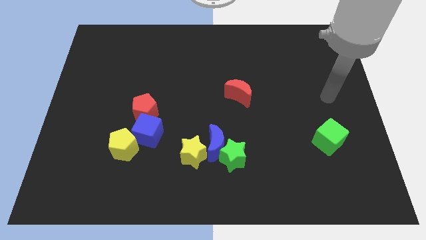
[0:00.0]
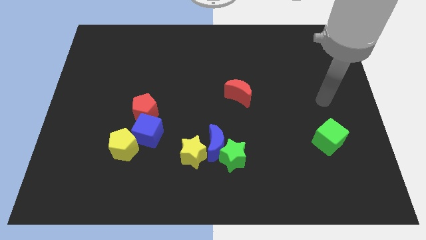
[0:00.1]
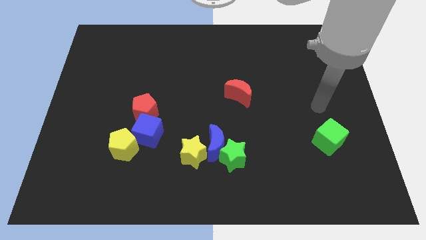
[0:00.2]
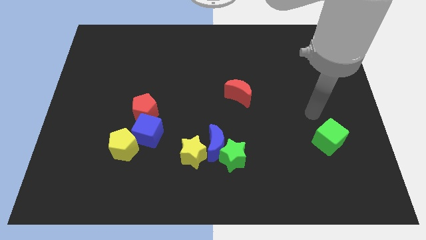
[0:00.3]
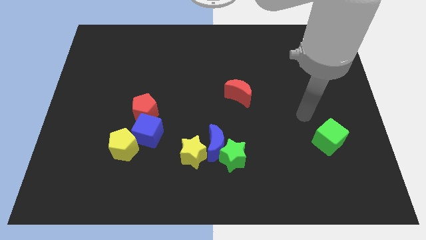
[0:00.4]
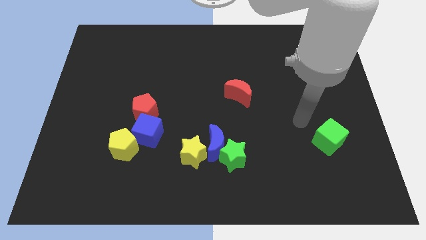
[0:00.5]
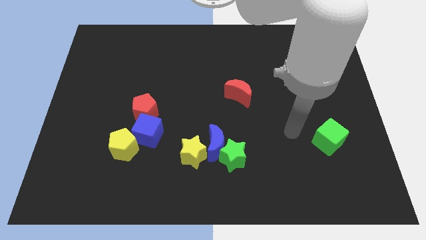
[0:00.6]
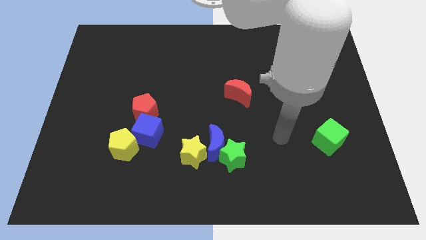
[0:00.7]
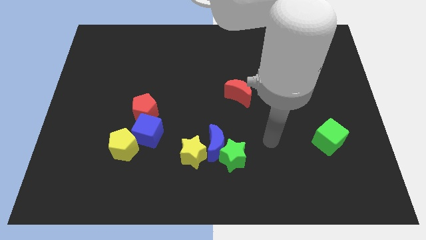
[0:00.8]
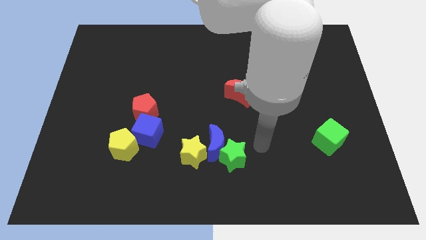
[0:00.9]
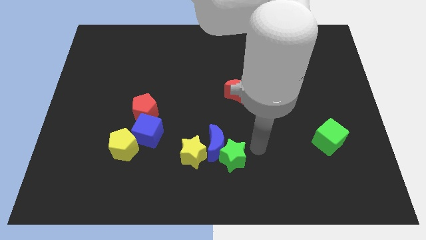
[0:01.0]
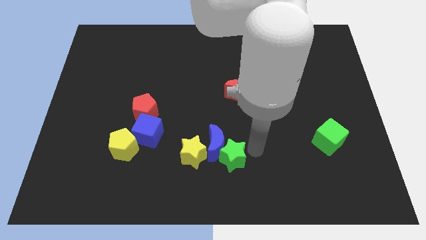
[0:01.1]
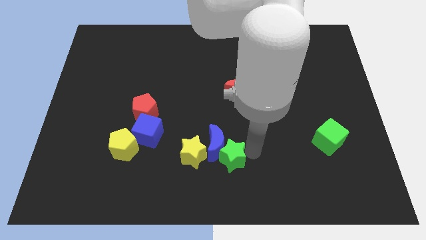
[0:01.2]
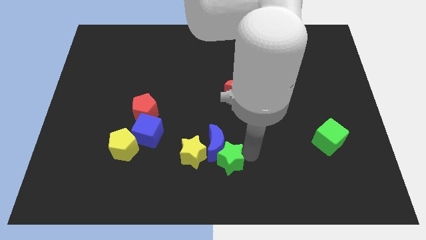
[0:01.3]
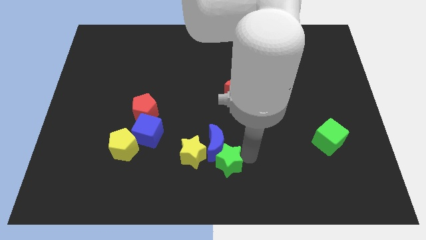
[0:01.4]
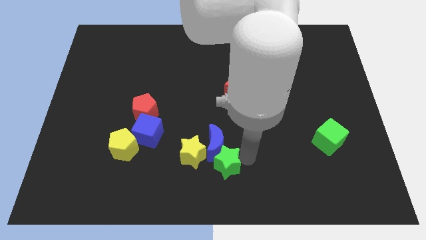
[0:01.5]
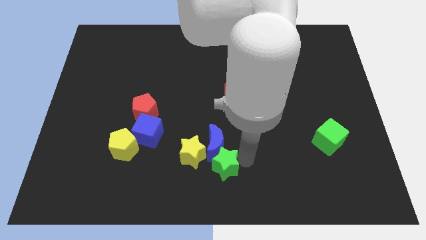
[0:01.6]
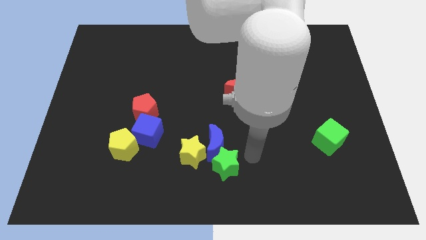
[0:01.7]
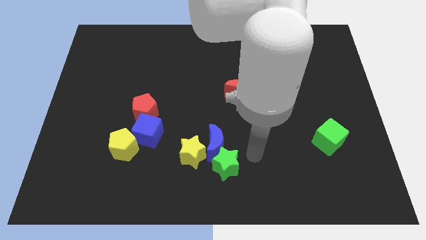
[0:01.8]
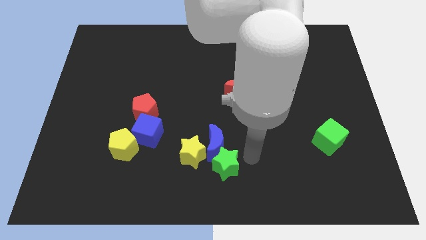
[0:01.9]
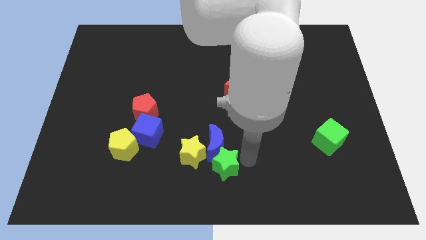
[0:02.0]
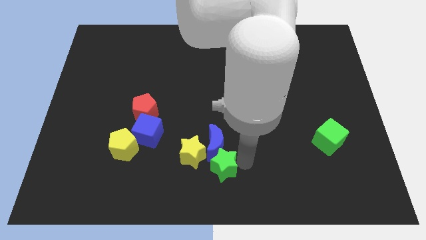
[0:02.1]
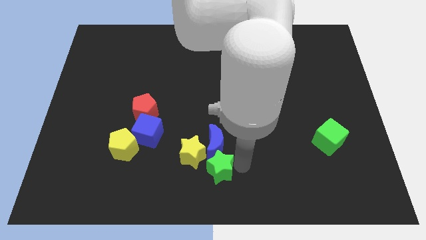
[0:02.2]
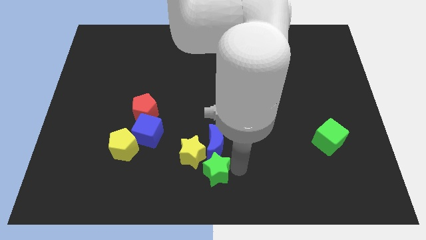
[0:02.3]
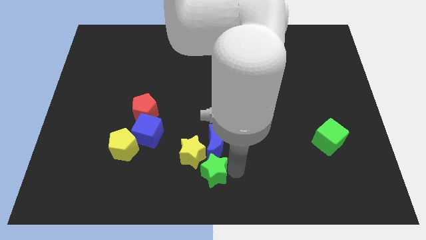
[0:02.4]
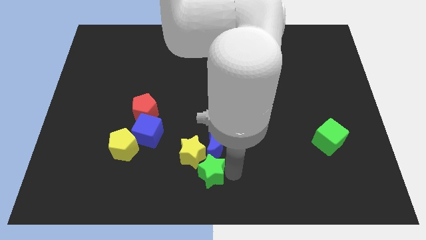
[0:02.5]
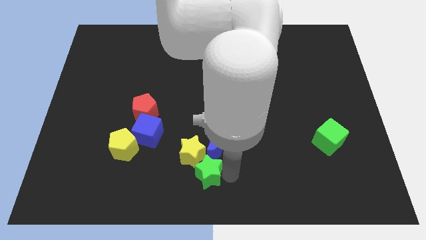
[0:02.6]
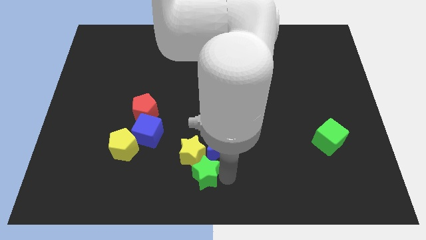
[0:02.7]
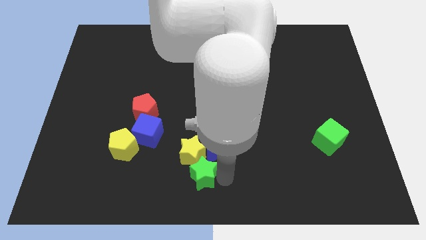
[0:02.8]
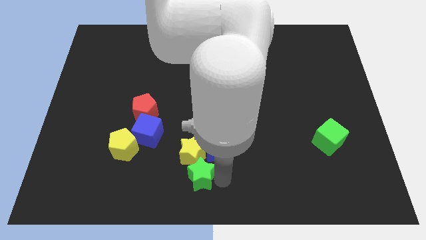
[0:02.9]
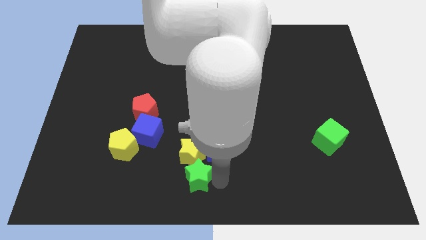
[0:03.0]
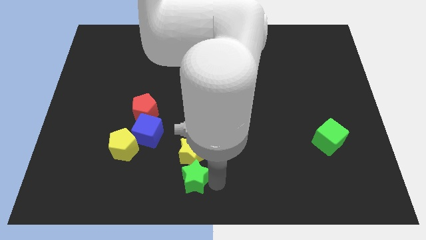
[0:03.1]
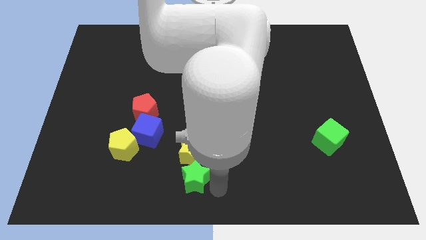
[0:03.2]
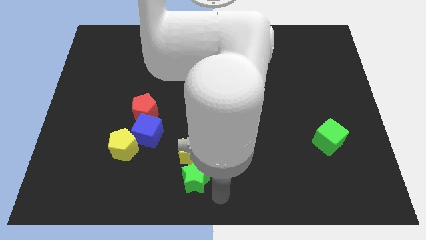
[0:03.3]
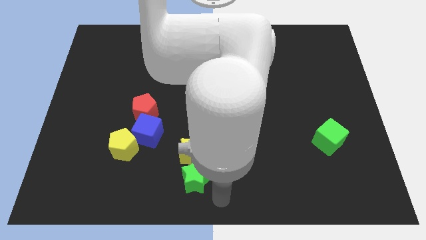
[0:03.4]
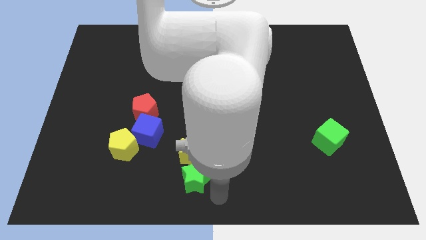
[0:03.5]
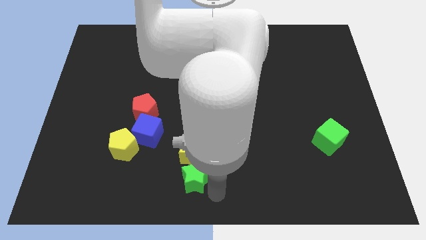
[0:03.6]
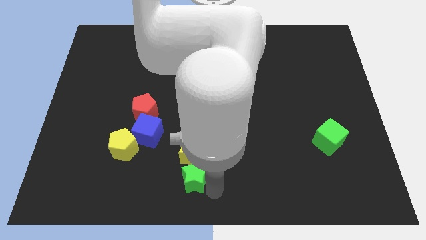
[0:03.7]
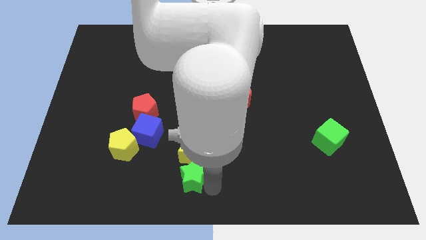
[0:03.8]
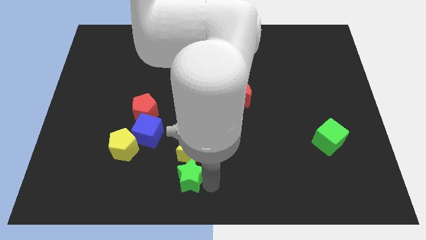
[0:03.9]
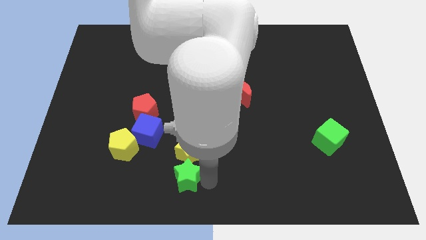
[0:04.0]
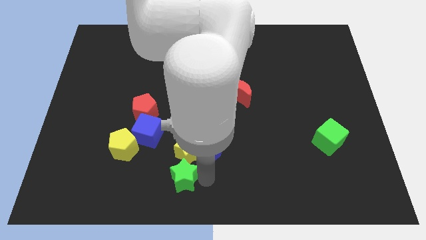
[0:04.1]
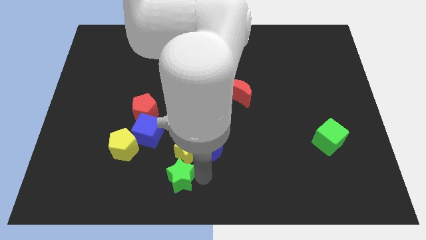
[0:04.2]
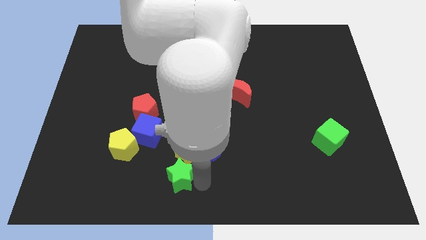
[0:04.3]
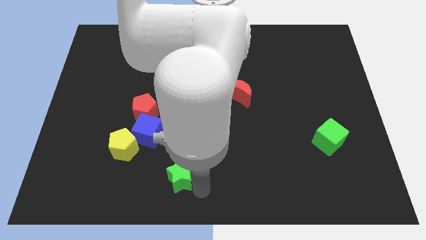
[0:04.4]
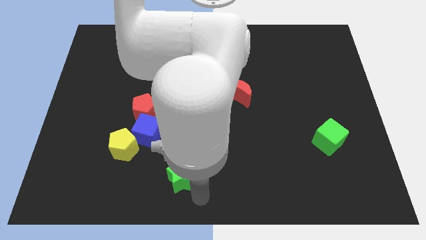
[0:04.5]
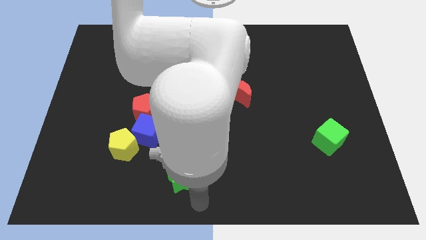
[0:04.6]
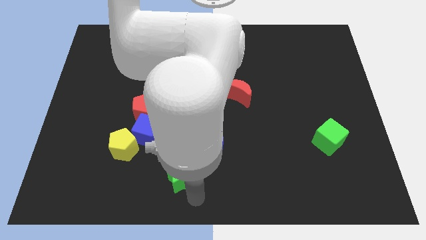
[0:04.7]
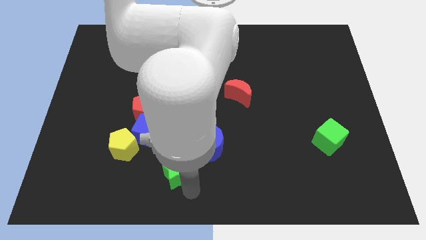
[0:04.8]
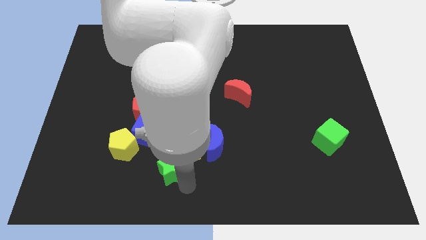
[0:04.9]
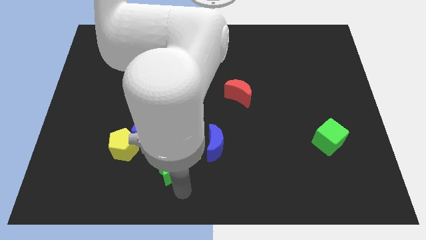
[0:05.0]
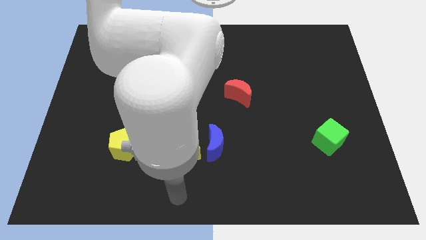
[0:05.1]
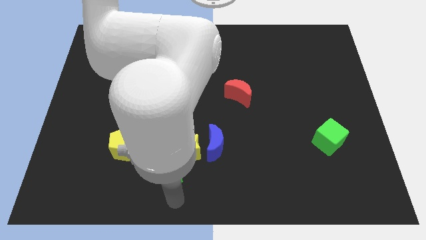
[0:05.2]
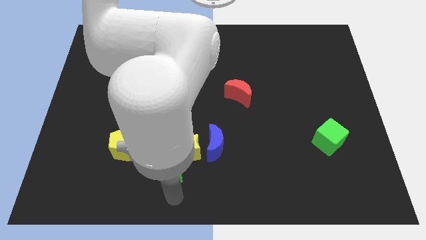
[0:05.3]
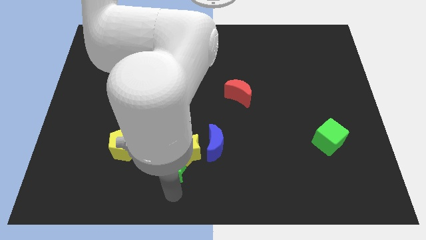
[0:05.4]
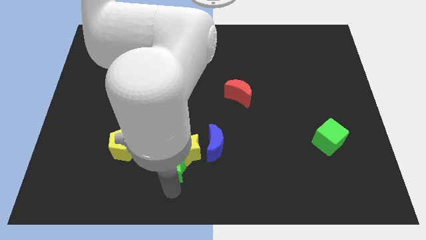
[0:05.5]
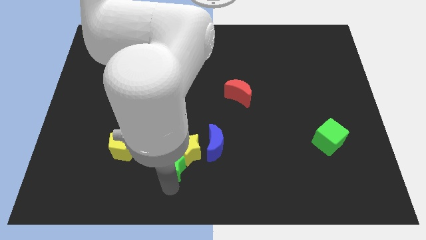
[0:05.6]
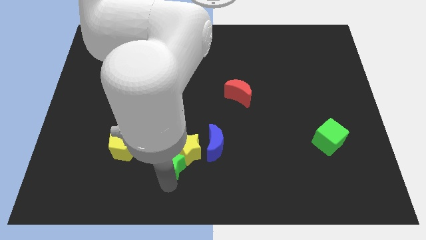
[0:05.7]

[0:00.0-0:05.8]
slide the green star to the right side of the yellow pentagon

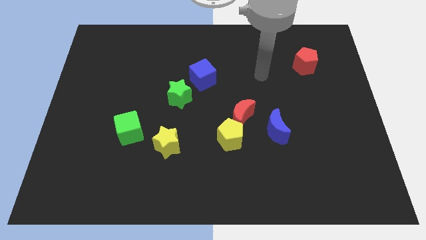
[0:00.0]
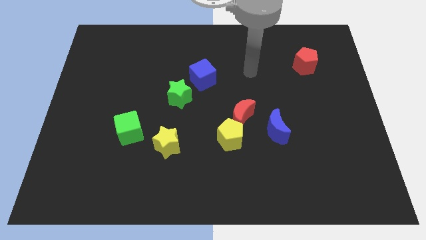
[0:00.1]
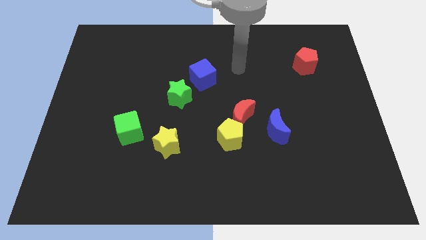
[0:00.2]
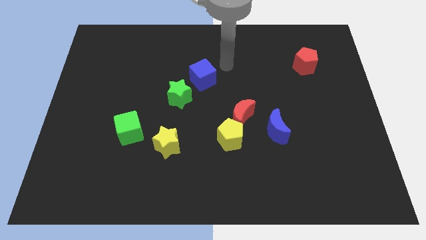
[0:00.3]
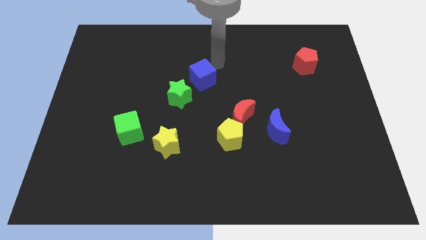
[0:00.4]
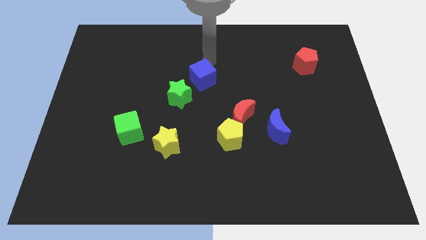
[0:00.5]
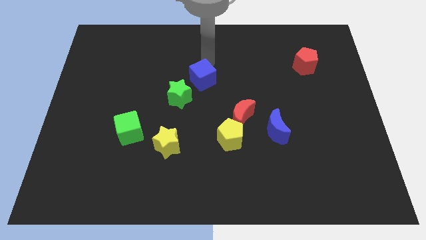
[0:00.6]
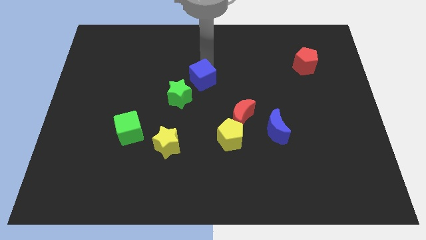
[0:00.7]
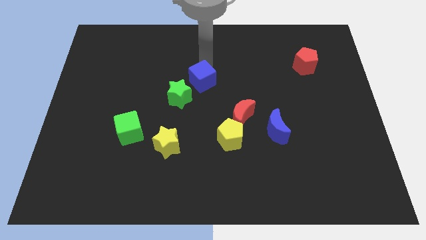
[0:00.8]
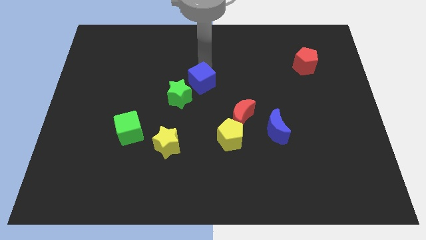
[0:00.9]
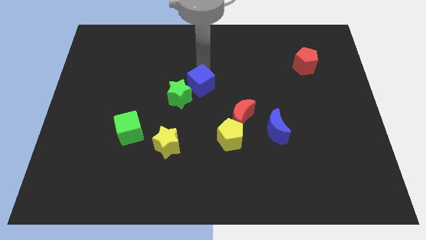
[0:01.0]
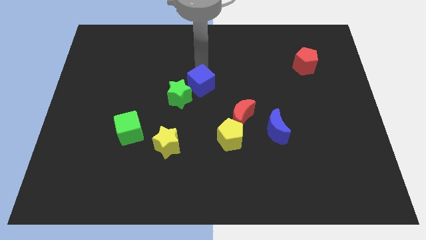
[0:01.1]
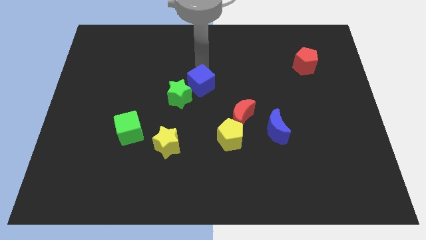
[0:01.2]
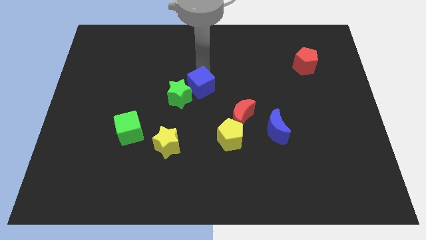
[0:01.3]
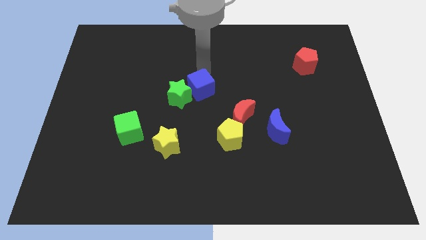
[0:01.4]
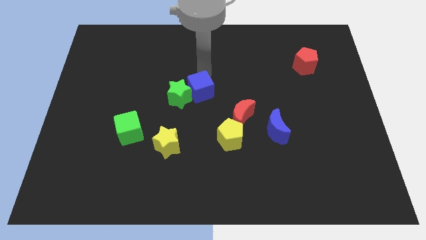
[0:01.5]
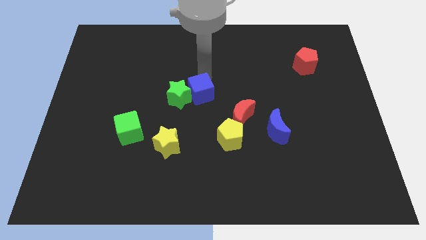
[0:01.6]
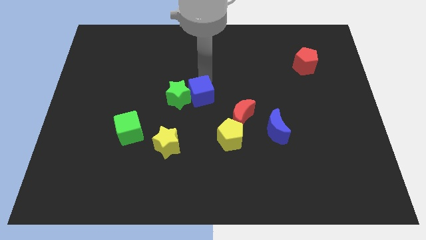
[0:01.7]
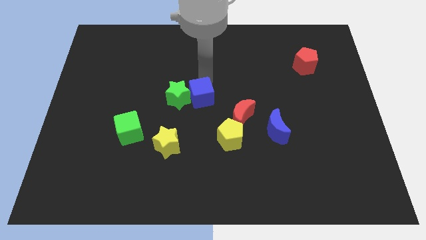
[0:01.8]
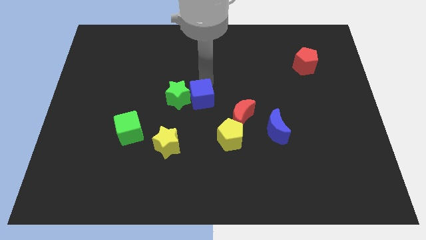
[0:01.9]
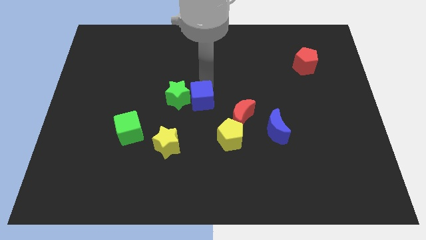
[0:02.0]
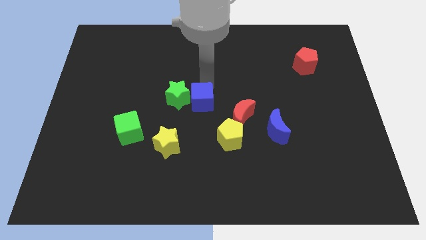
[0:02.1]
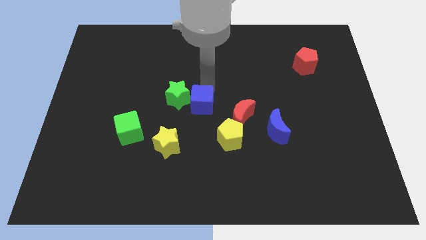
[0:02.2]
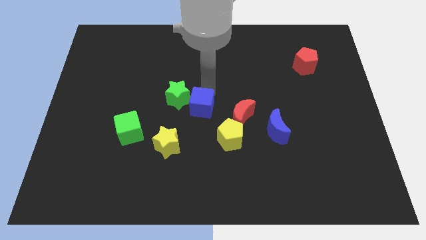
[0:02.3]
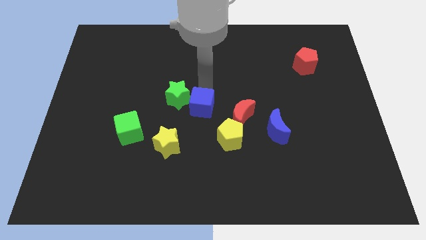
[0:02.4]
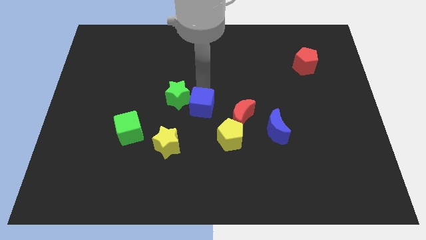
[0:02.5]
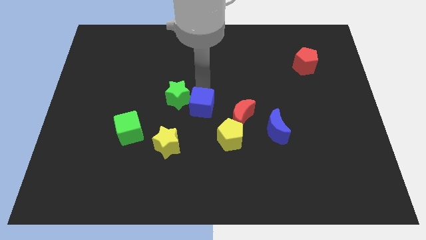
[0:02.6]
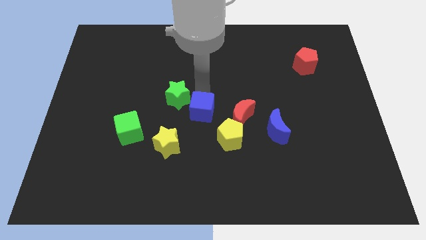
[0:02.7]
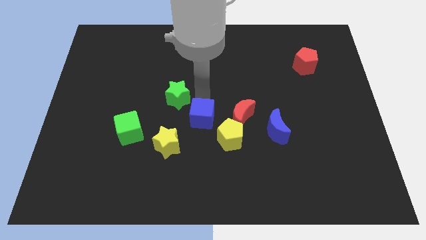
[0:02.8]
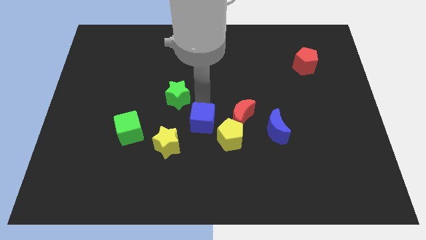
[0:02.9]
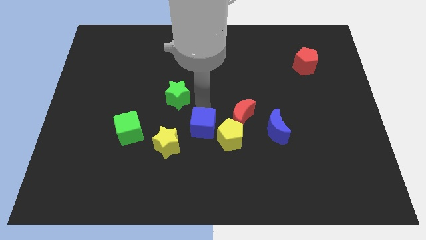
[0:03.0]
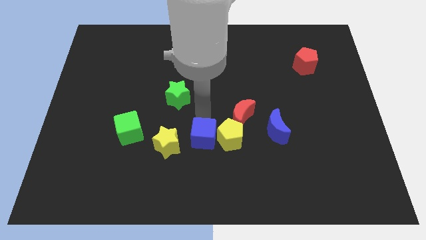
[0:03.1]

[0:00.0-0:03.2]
push the blue cube diagonally down and to the left of the yellow pentagon
